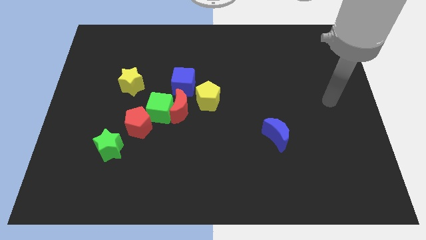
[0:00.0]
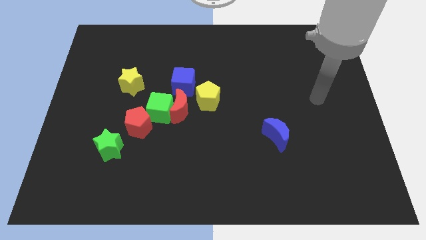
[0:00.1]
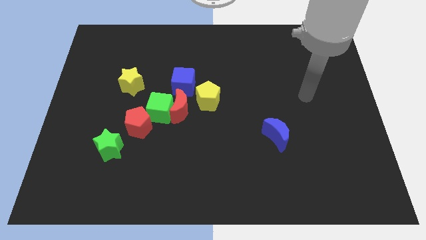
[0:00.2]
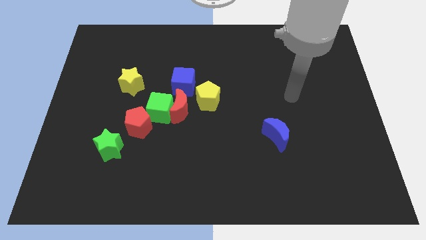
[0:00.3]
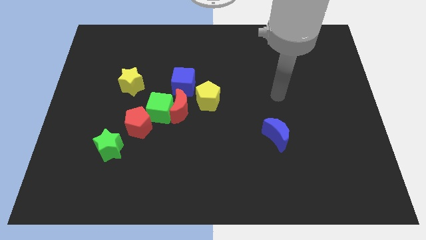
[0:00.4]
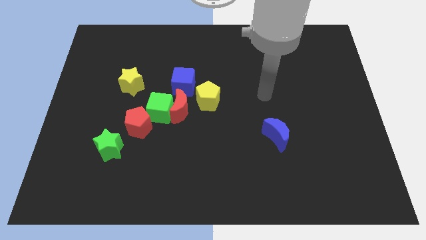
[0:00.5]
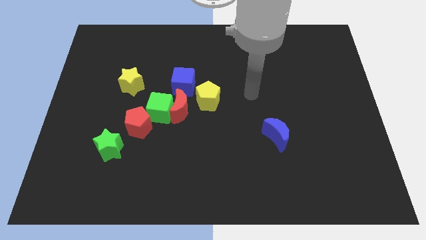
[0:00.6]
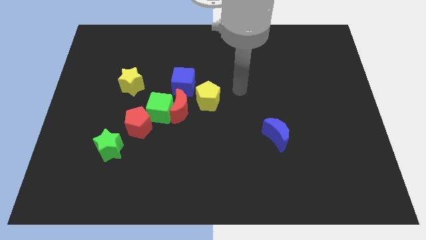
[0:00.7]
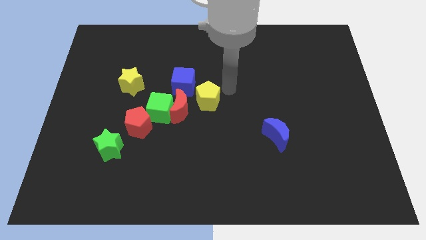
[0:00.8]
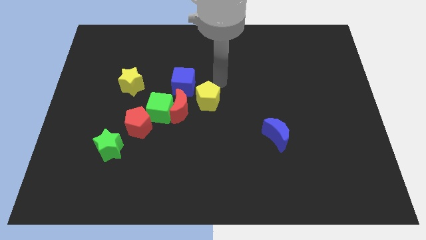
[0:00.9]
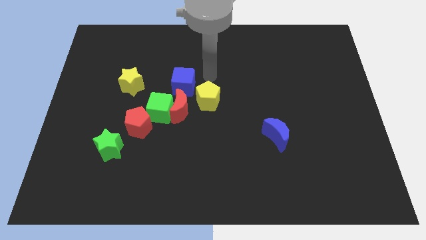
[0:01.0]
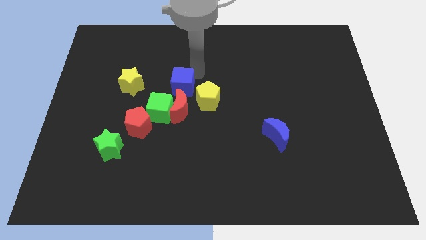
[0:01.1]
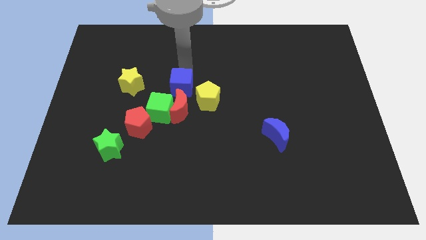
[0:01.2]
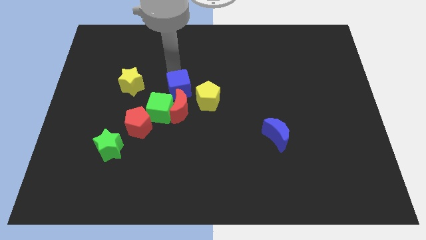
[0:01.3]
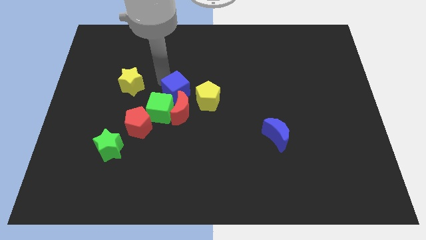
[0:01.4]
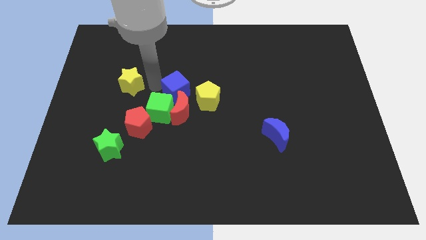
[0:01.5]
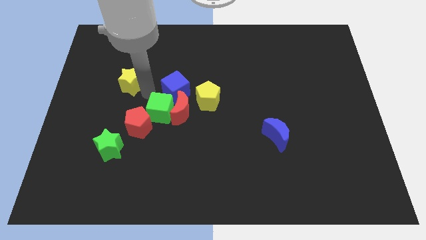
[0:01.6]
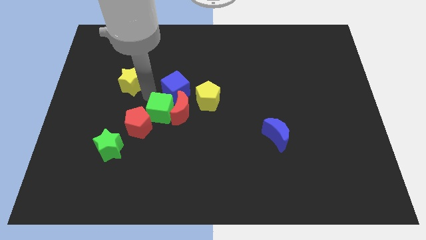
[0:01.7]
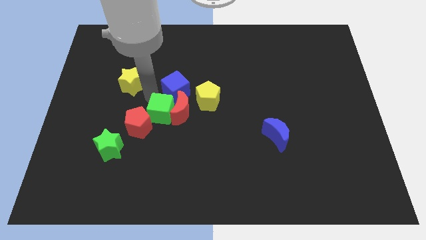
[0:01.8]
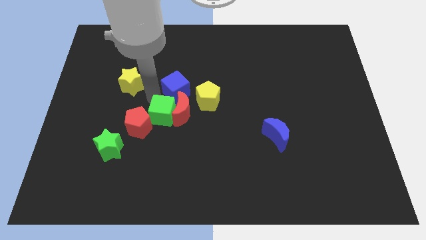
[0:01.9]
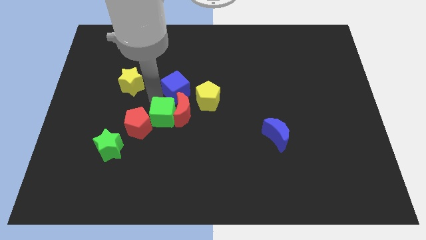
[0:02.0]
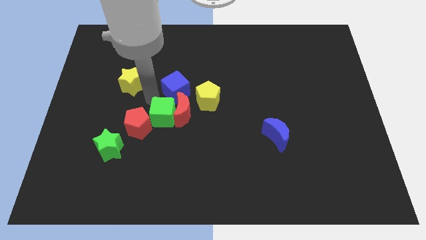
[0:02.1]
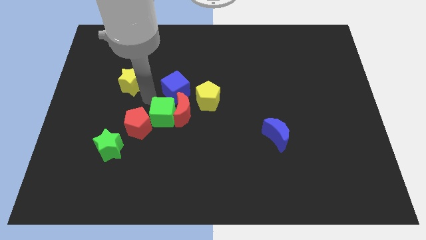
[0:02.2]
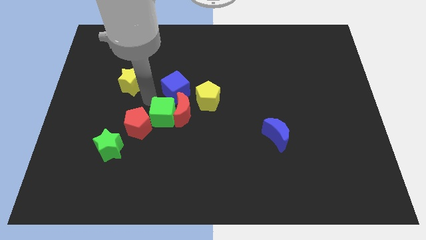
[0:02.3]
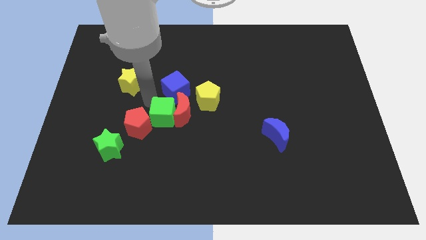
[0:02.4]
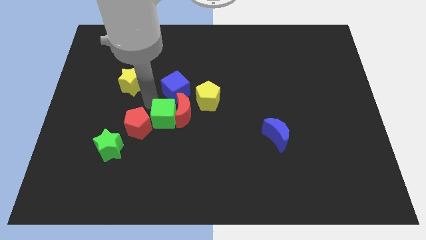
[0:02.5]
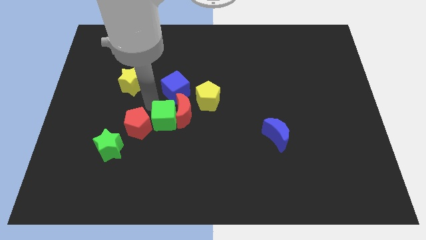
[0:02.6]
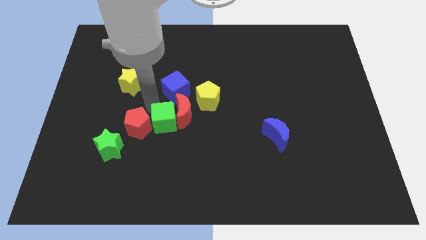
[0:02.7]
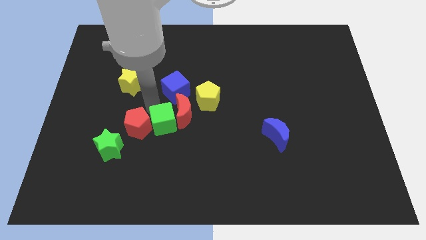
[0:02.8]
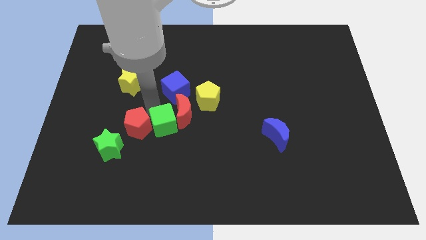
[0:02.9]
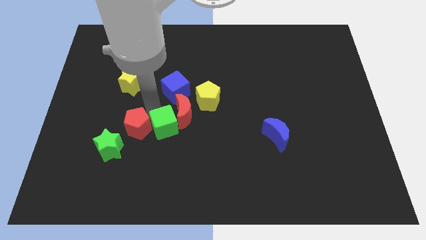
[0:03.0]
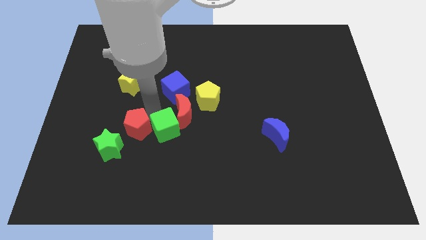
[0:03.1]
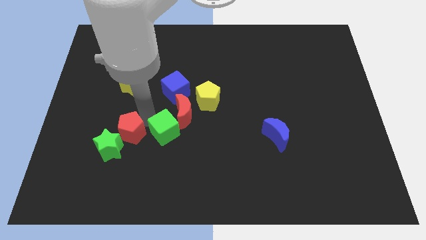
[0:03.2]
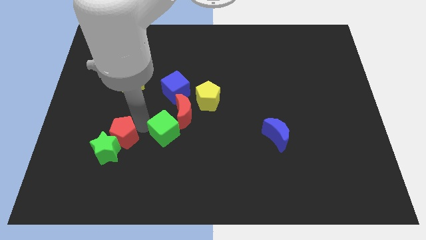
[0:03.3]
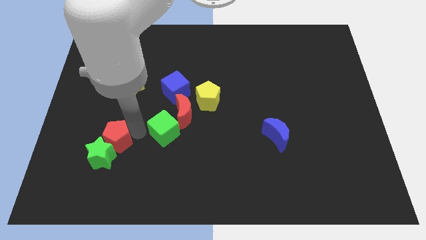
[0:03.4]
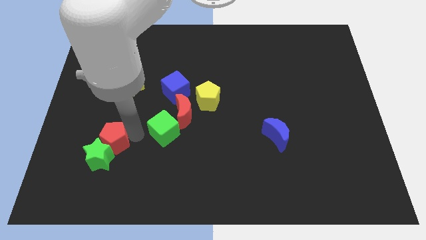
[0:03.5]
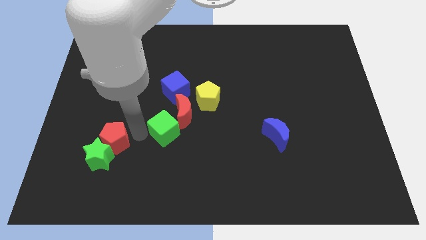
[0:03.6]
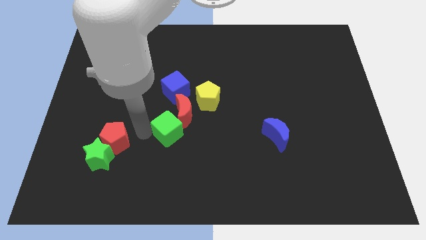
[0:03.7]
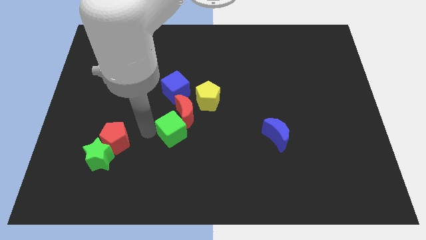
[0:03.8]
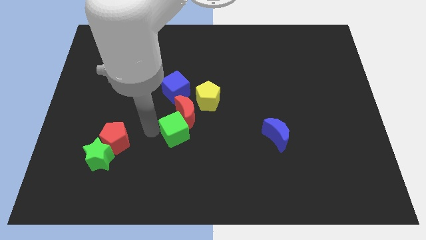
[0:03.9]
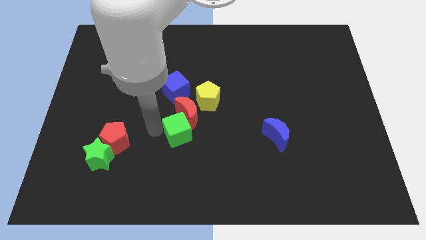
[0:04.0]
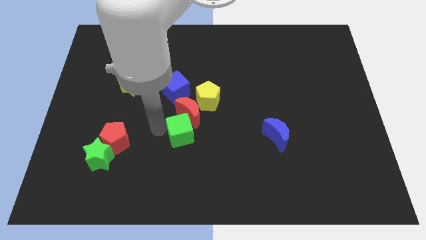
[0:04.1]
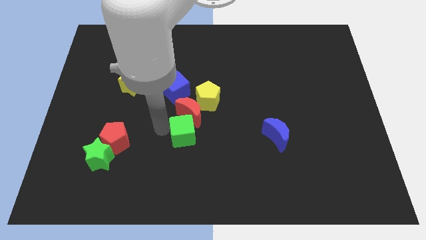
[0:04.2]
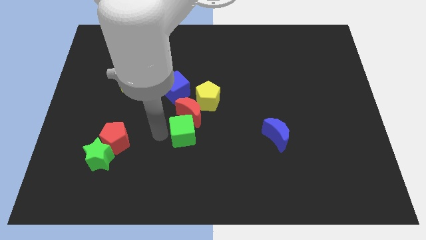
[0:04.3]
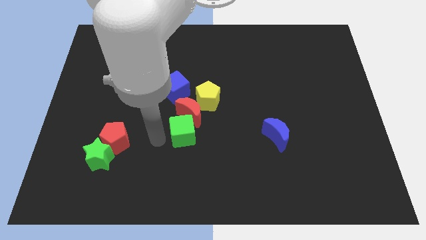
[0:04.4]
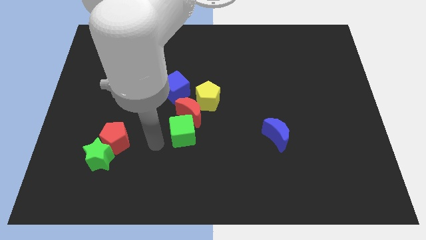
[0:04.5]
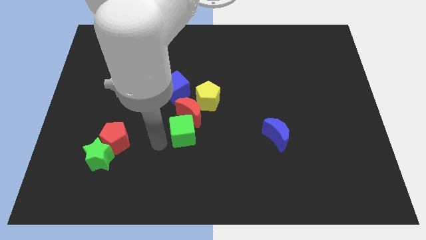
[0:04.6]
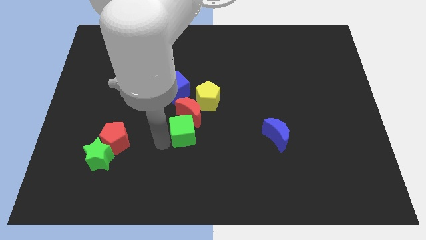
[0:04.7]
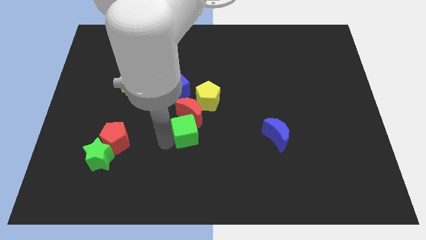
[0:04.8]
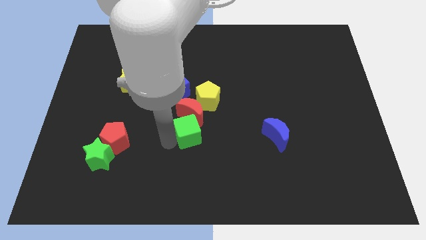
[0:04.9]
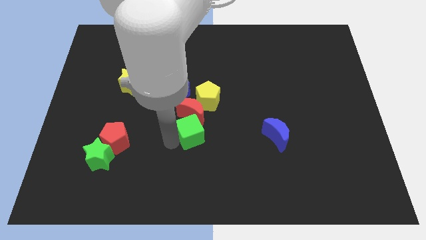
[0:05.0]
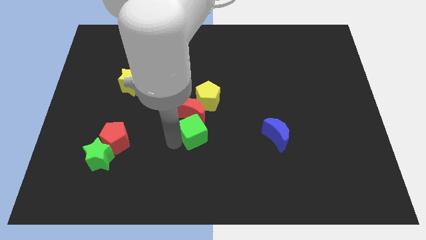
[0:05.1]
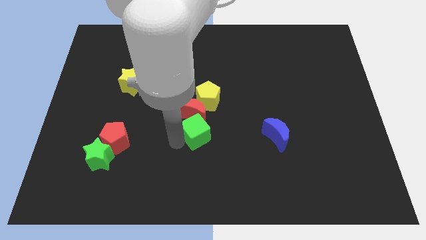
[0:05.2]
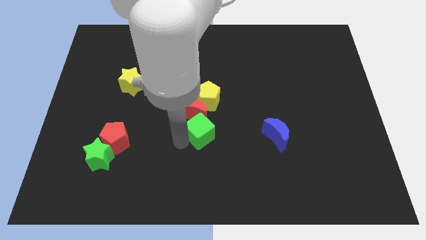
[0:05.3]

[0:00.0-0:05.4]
slightly slide the green cube to the right

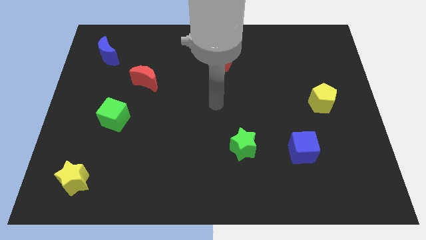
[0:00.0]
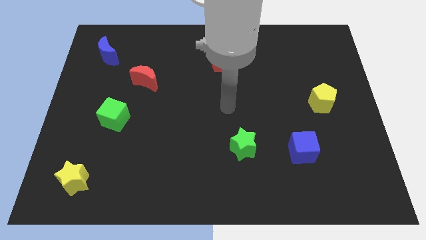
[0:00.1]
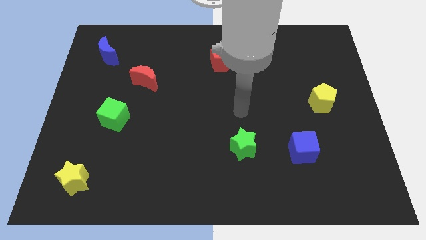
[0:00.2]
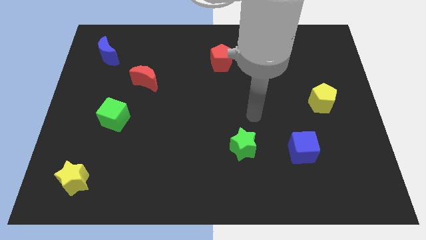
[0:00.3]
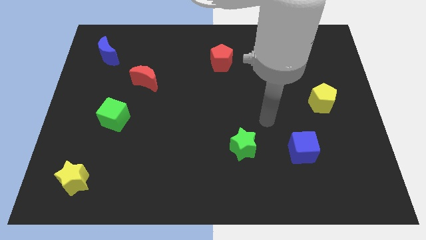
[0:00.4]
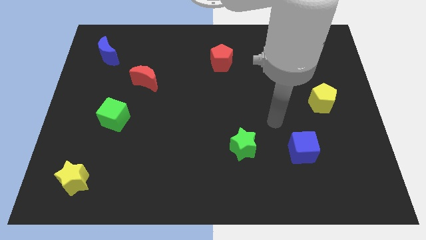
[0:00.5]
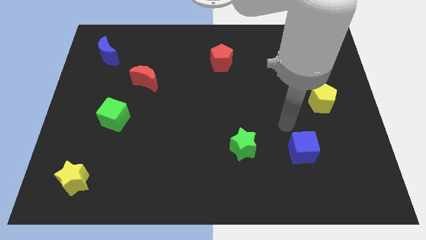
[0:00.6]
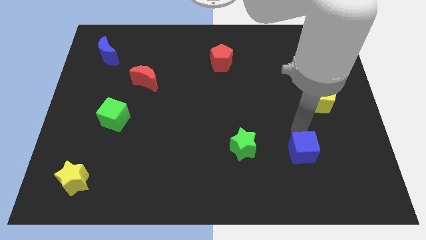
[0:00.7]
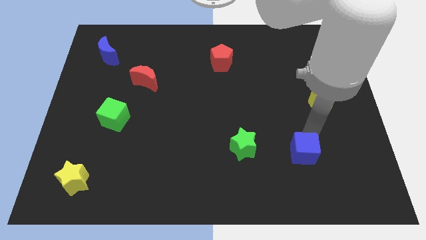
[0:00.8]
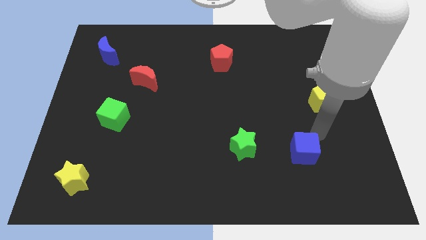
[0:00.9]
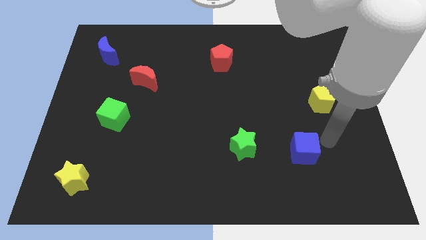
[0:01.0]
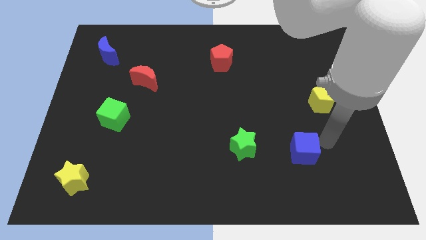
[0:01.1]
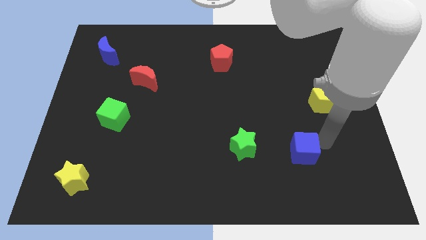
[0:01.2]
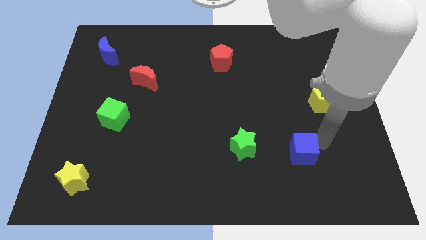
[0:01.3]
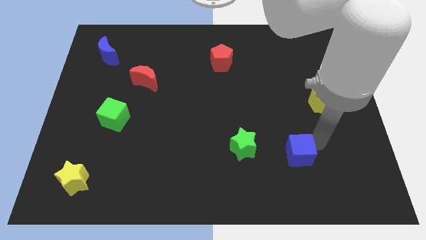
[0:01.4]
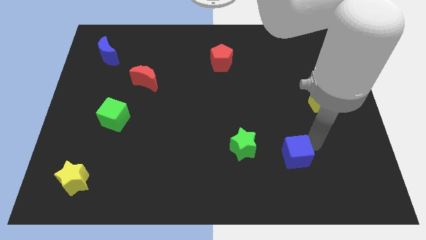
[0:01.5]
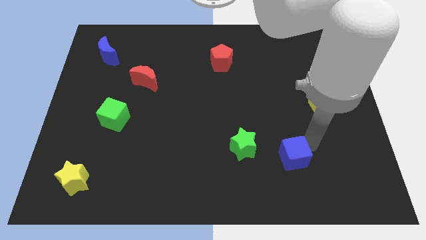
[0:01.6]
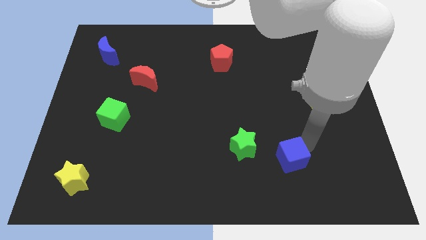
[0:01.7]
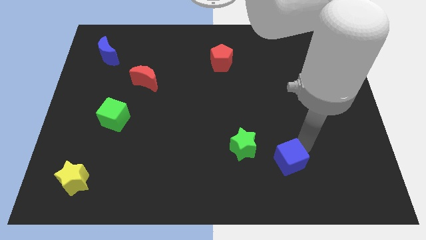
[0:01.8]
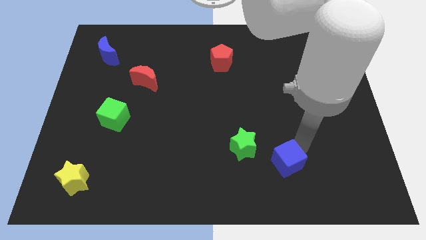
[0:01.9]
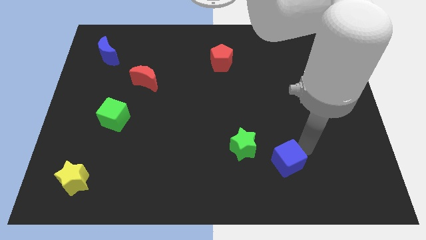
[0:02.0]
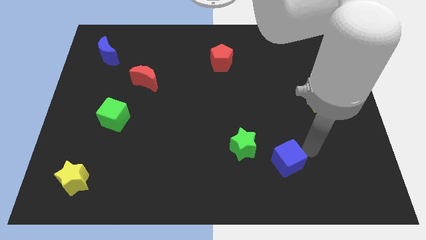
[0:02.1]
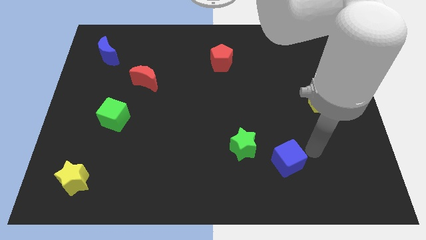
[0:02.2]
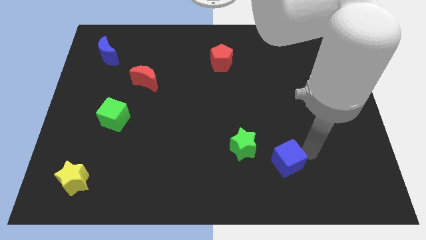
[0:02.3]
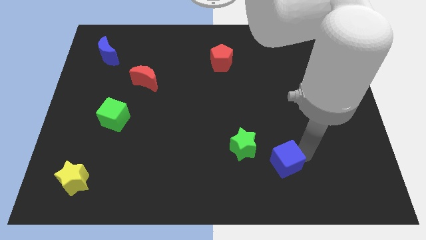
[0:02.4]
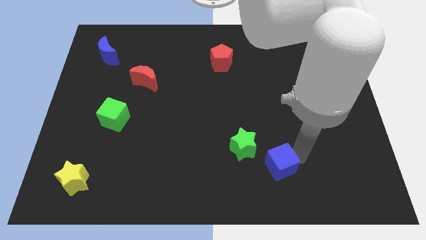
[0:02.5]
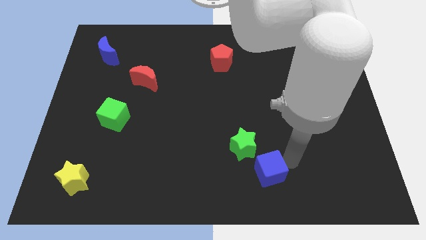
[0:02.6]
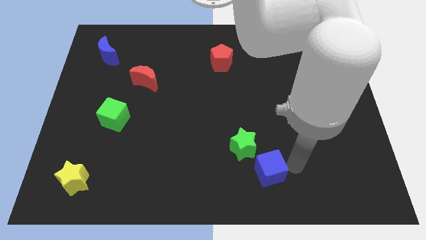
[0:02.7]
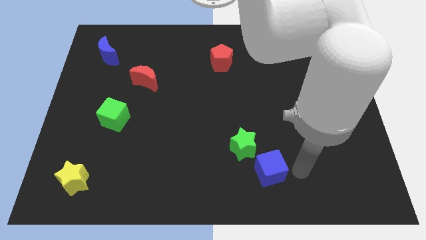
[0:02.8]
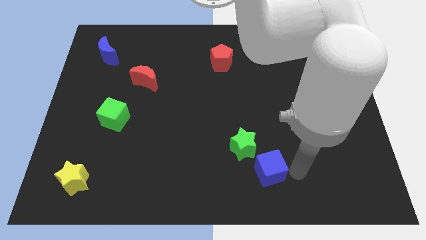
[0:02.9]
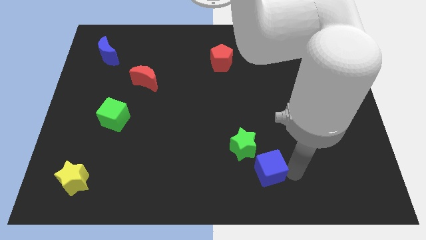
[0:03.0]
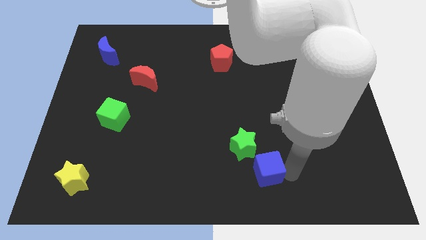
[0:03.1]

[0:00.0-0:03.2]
slightly slide the blue cube to the left
